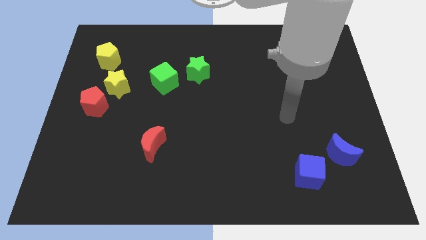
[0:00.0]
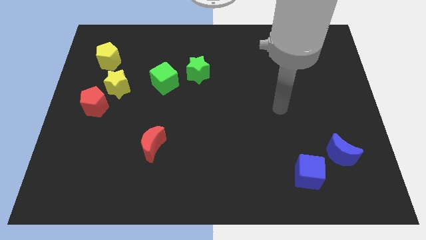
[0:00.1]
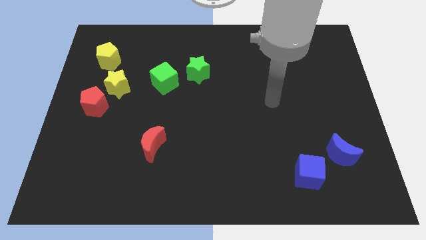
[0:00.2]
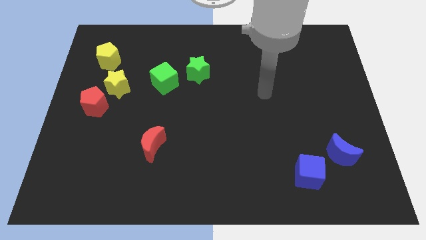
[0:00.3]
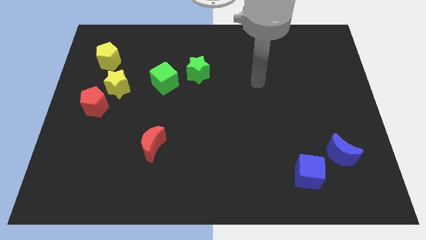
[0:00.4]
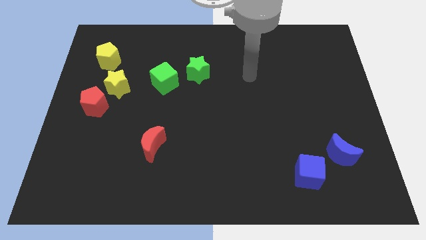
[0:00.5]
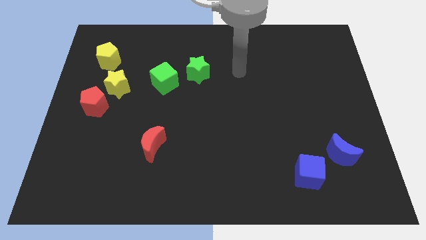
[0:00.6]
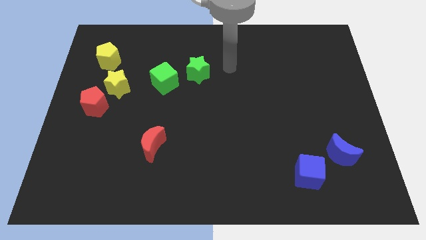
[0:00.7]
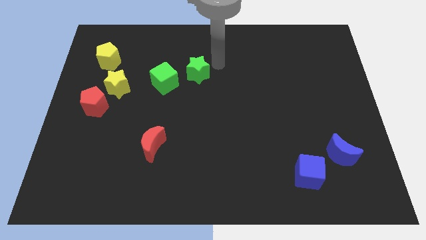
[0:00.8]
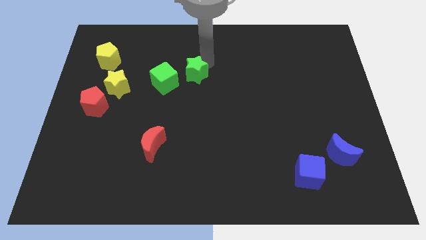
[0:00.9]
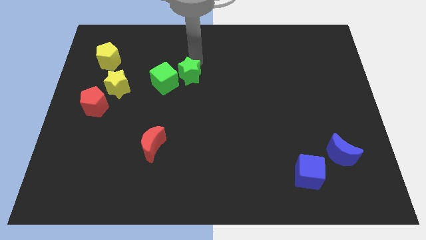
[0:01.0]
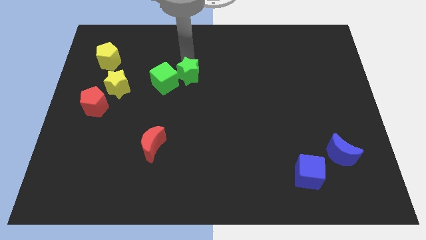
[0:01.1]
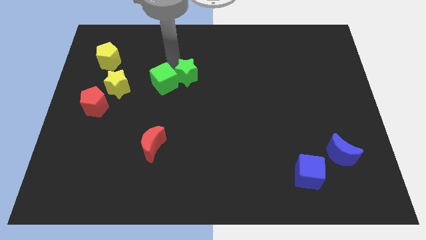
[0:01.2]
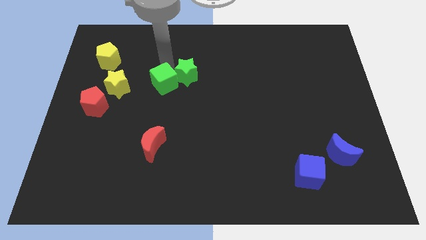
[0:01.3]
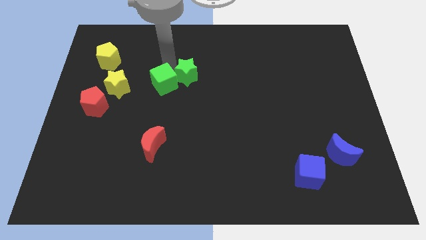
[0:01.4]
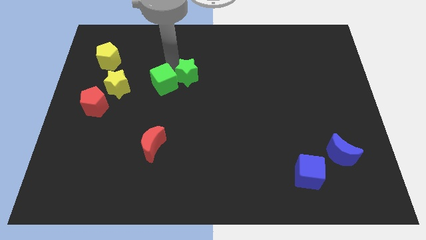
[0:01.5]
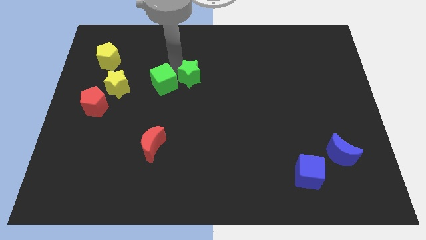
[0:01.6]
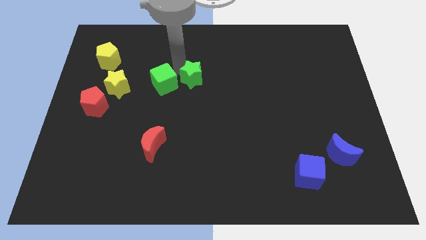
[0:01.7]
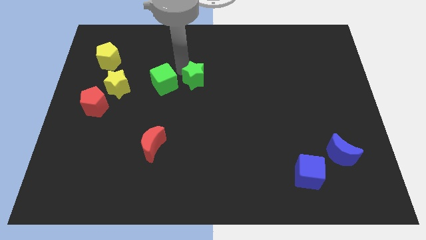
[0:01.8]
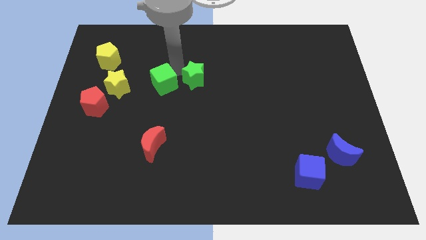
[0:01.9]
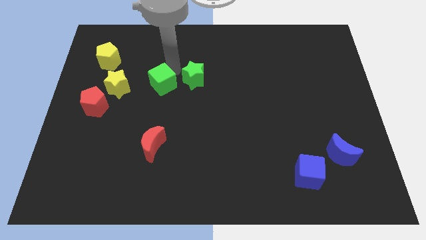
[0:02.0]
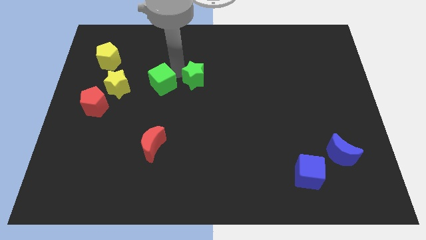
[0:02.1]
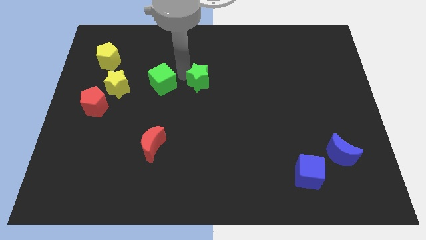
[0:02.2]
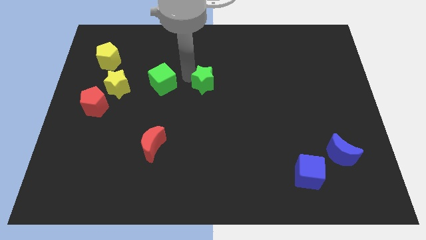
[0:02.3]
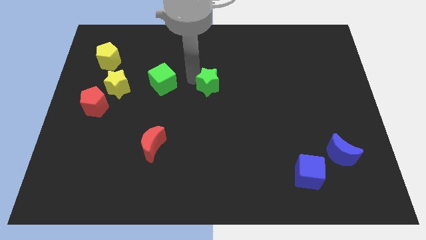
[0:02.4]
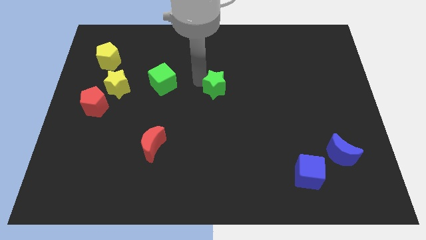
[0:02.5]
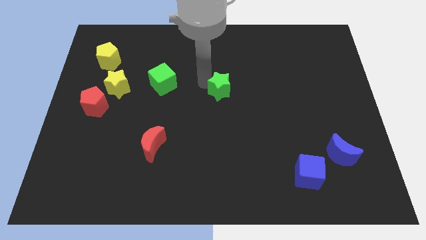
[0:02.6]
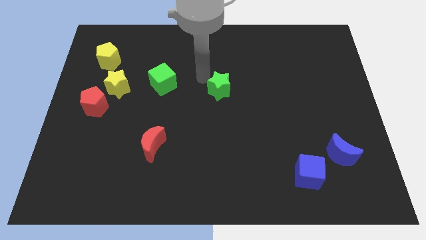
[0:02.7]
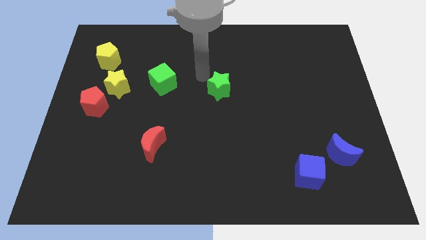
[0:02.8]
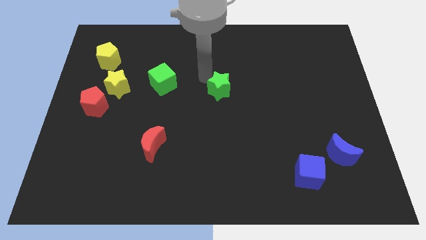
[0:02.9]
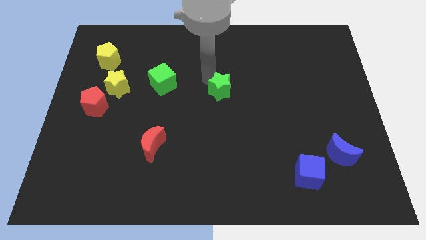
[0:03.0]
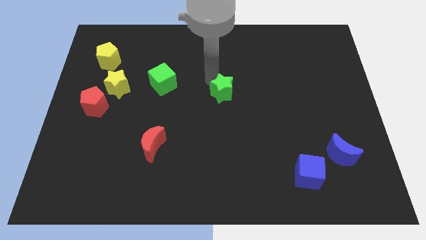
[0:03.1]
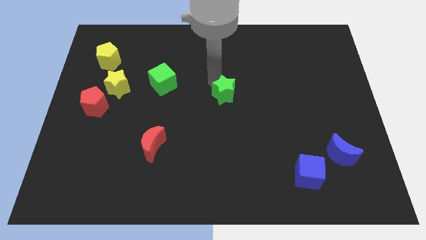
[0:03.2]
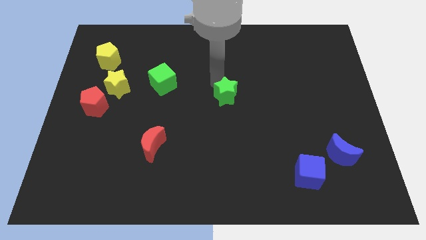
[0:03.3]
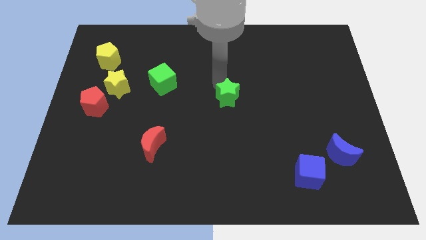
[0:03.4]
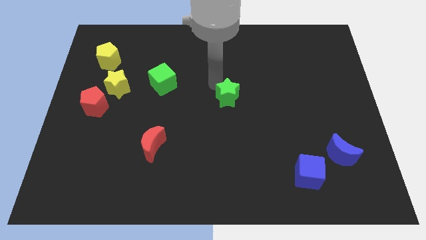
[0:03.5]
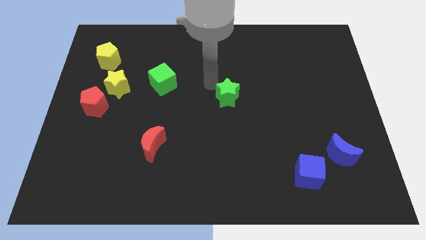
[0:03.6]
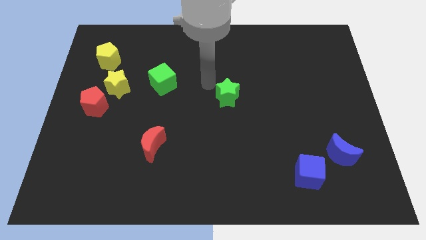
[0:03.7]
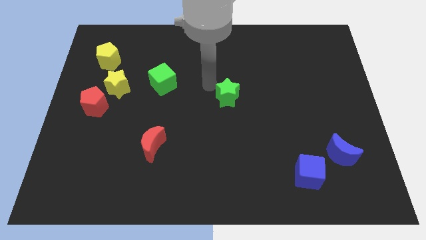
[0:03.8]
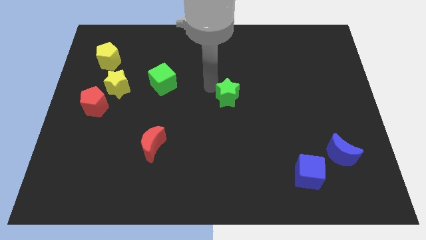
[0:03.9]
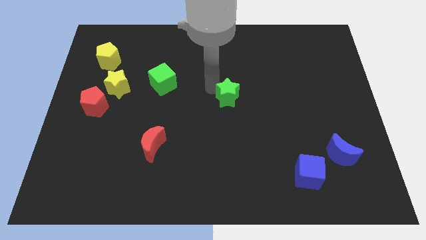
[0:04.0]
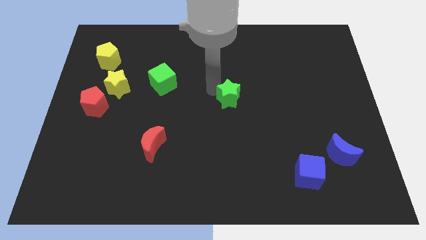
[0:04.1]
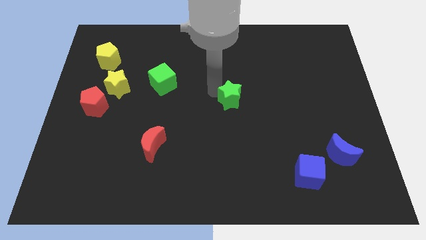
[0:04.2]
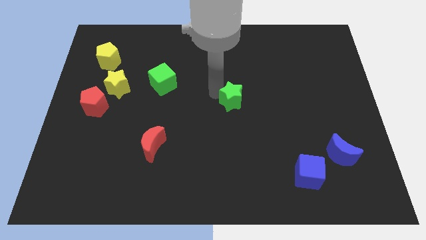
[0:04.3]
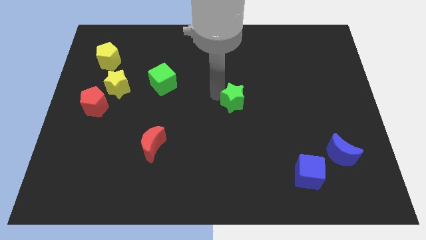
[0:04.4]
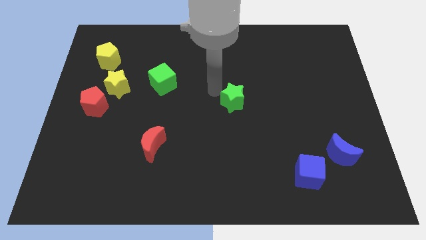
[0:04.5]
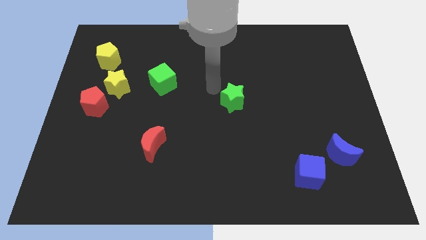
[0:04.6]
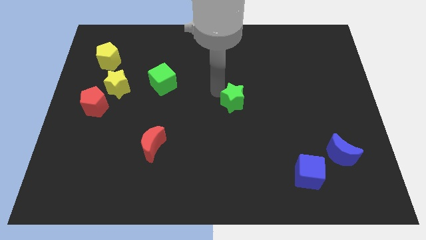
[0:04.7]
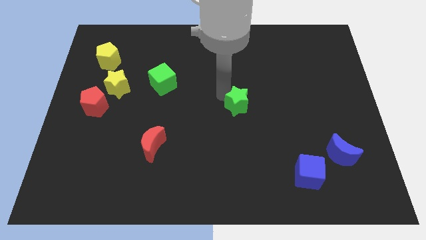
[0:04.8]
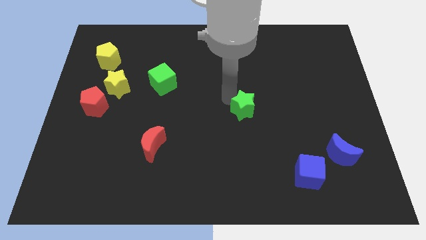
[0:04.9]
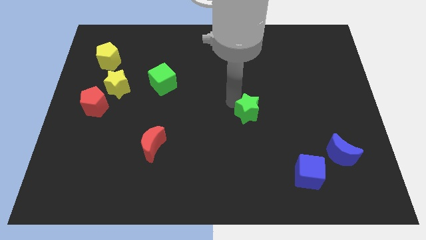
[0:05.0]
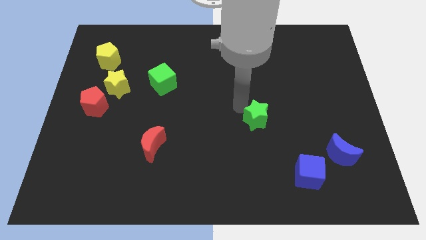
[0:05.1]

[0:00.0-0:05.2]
move the green star downwards and right

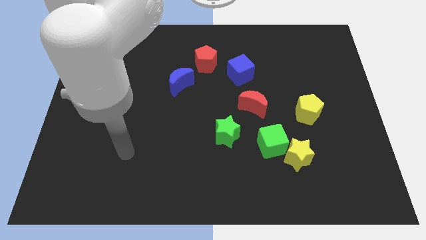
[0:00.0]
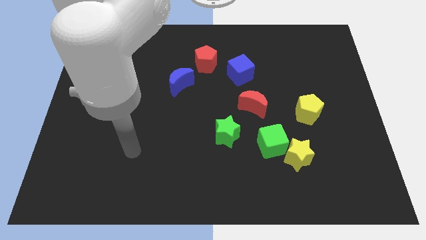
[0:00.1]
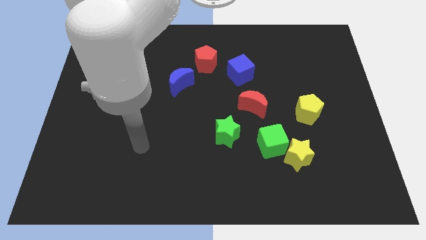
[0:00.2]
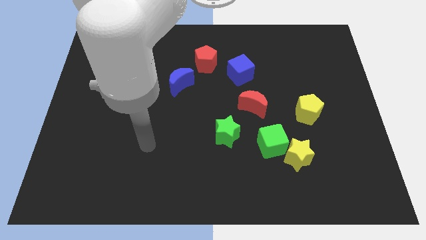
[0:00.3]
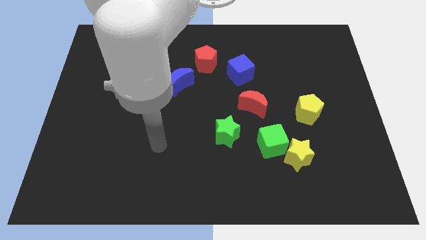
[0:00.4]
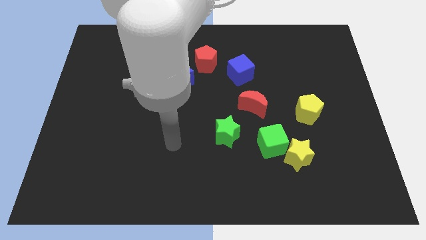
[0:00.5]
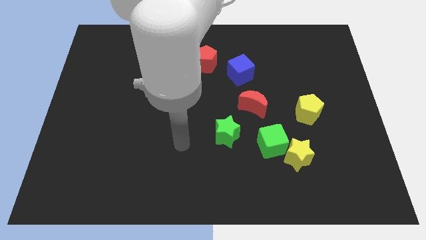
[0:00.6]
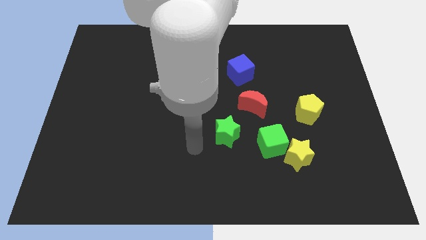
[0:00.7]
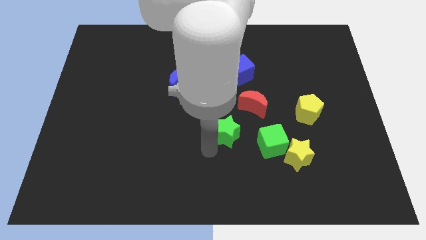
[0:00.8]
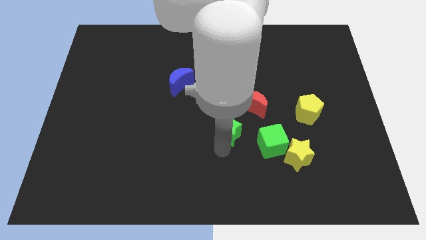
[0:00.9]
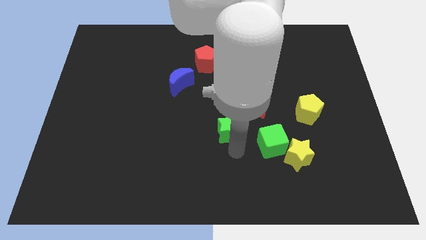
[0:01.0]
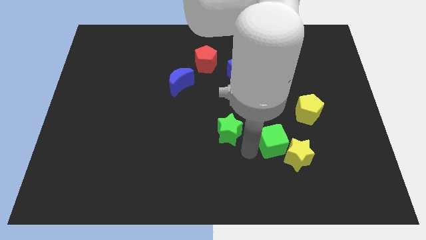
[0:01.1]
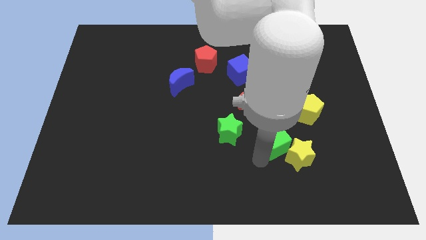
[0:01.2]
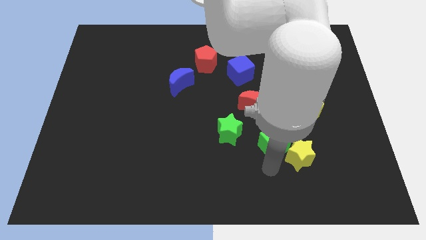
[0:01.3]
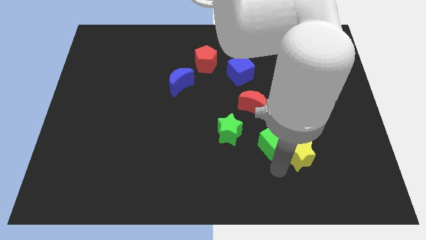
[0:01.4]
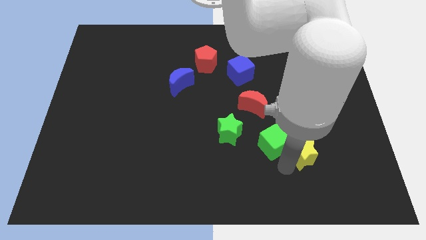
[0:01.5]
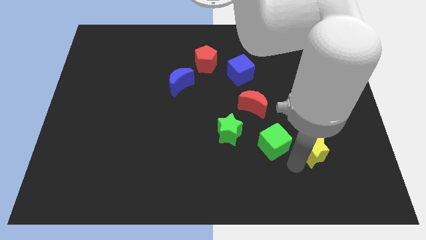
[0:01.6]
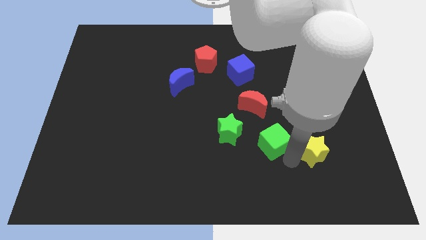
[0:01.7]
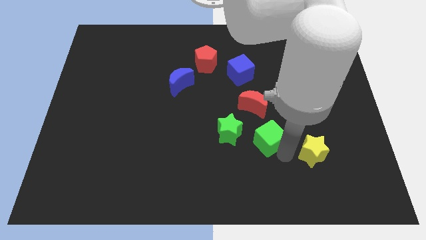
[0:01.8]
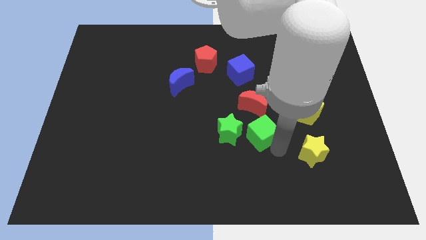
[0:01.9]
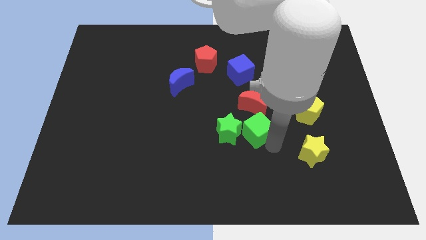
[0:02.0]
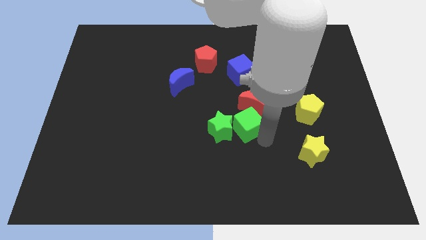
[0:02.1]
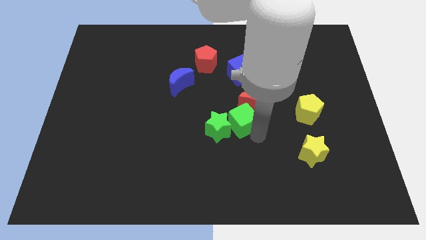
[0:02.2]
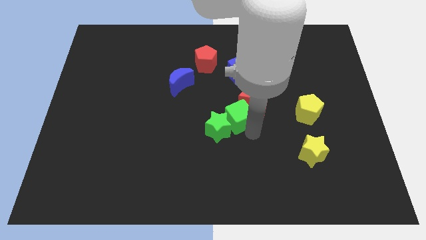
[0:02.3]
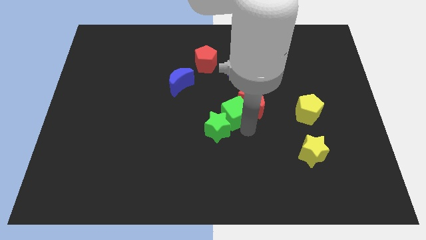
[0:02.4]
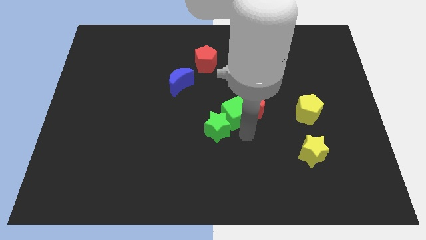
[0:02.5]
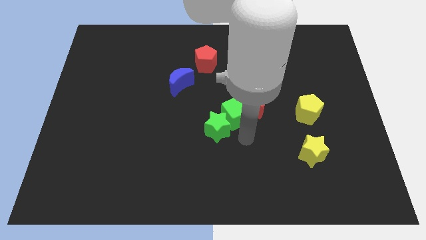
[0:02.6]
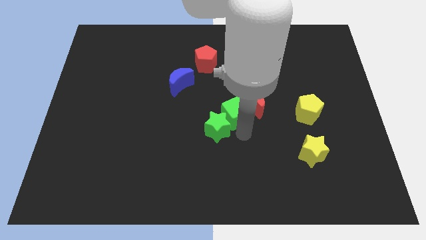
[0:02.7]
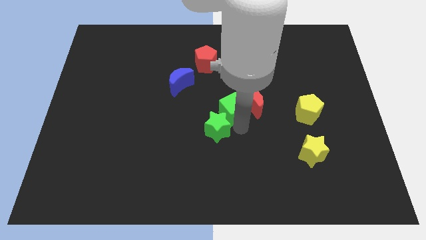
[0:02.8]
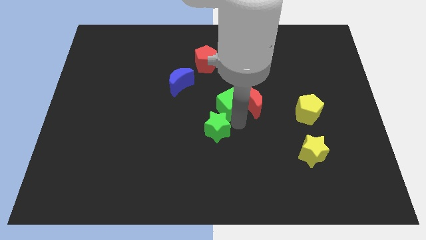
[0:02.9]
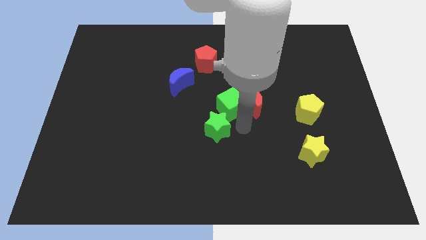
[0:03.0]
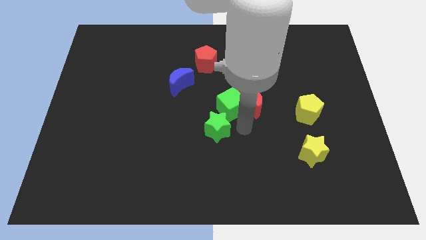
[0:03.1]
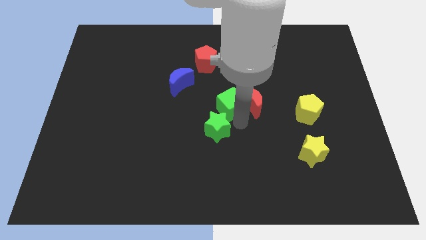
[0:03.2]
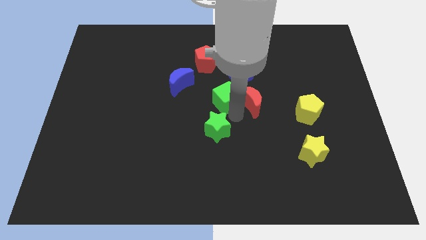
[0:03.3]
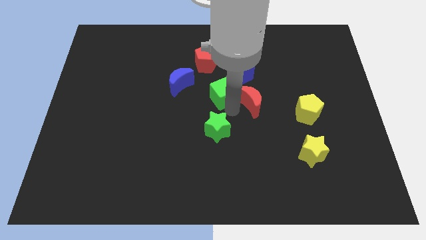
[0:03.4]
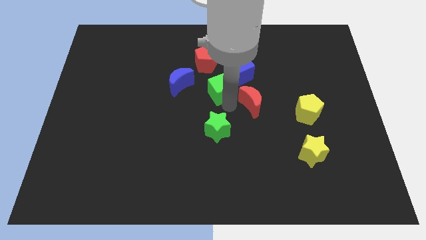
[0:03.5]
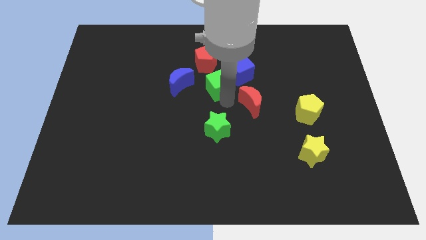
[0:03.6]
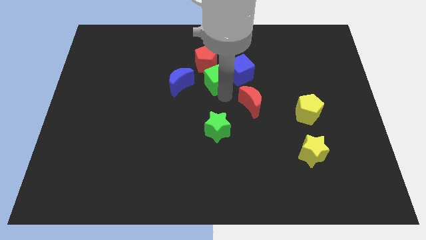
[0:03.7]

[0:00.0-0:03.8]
push the green cube upwards and to the left
